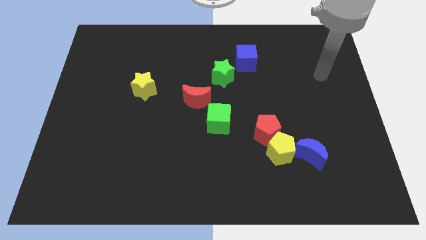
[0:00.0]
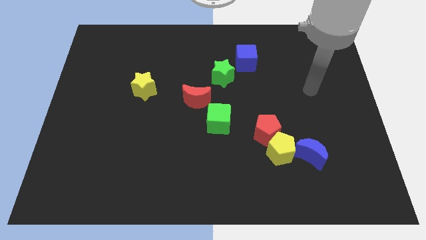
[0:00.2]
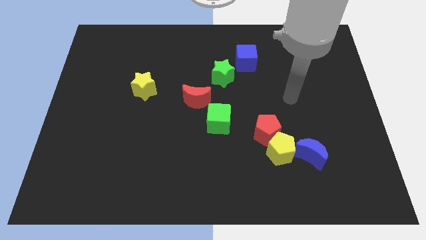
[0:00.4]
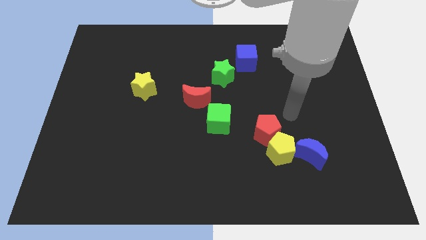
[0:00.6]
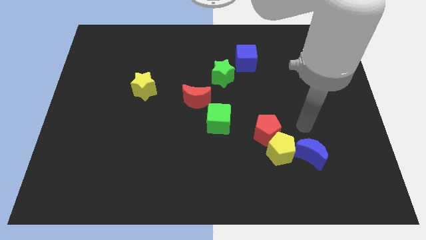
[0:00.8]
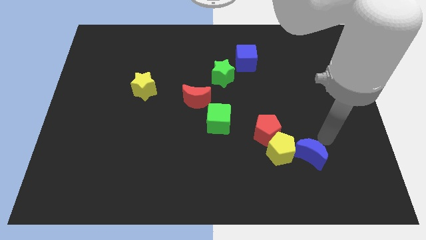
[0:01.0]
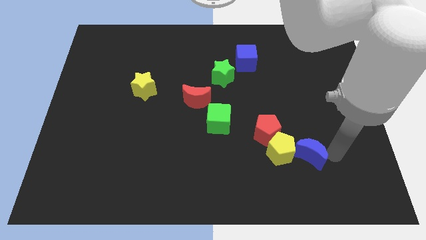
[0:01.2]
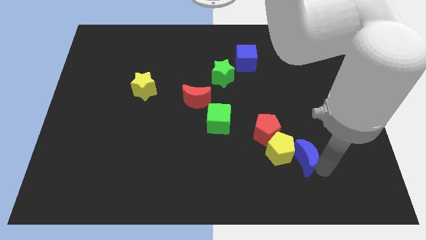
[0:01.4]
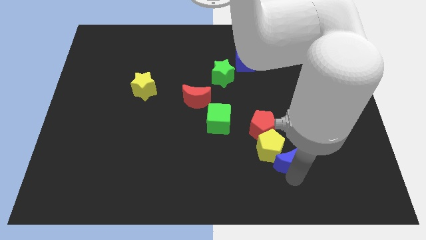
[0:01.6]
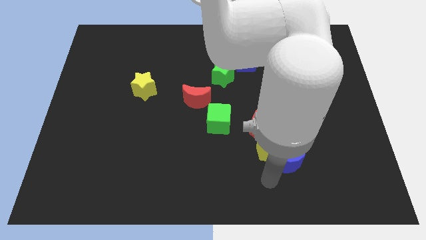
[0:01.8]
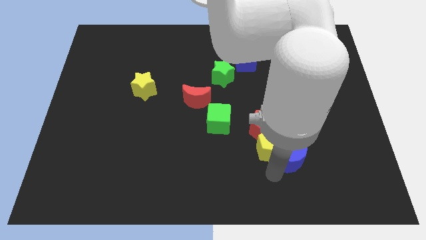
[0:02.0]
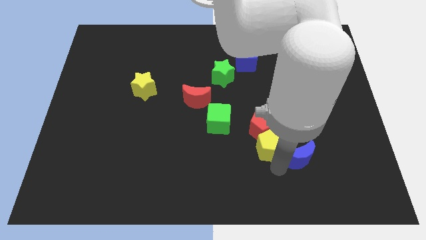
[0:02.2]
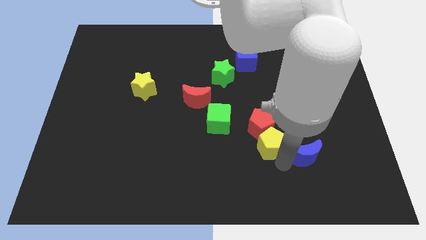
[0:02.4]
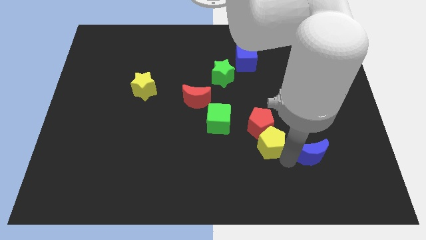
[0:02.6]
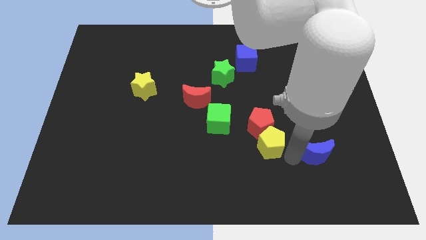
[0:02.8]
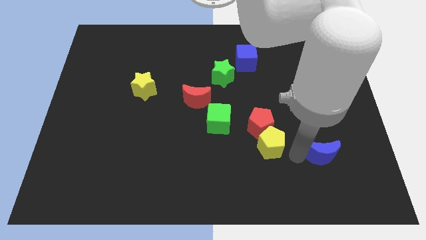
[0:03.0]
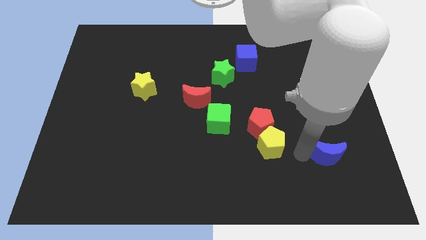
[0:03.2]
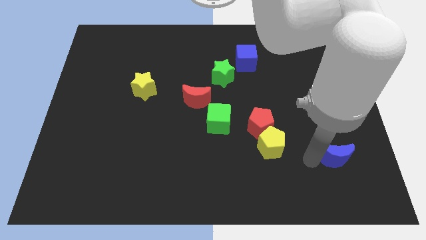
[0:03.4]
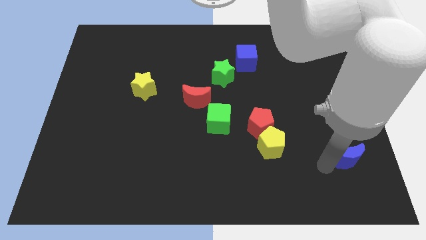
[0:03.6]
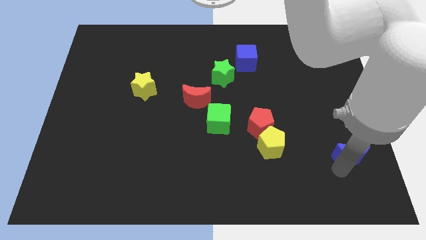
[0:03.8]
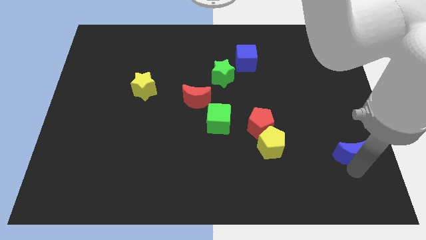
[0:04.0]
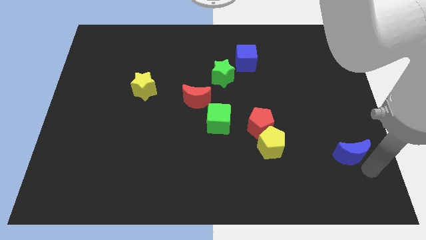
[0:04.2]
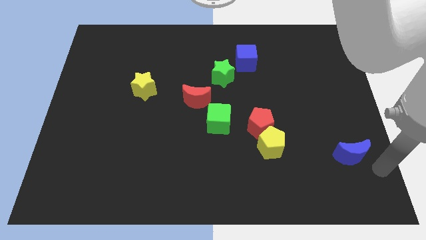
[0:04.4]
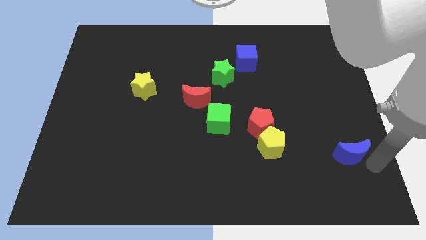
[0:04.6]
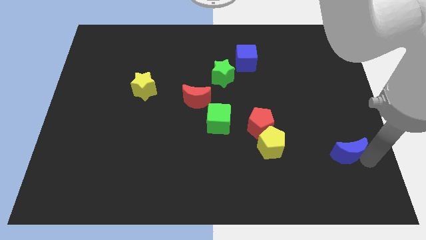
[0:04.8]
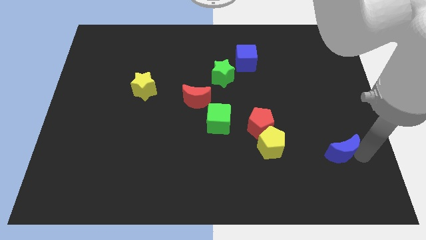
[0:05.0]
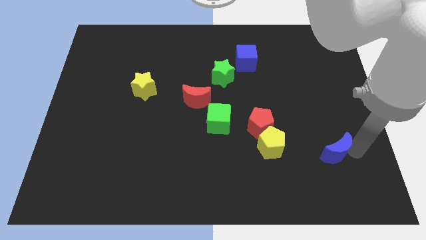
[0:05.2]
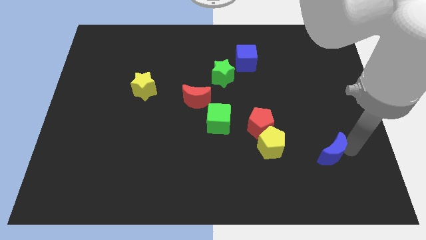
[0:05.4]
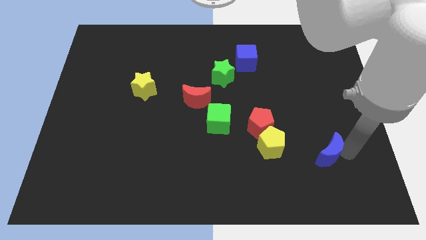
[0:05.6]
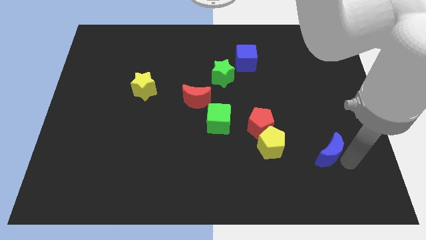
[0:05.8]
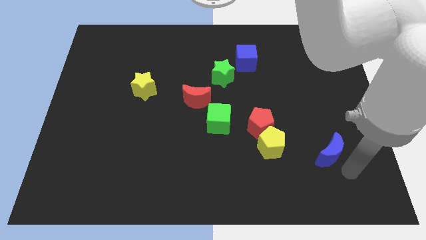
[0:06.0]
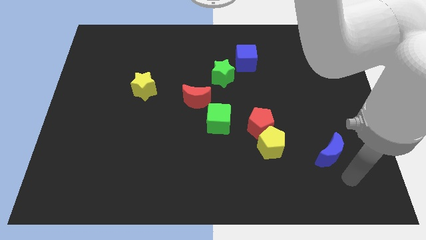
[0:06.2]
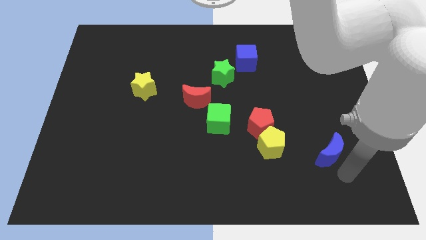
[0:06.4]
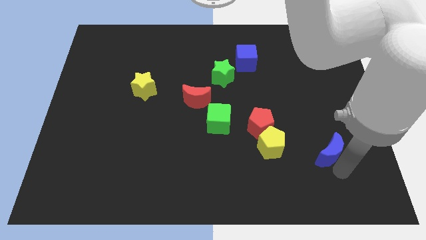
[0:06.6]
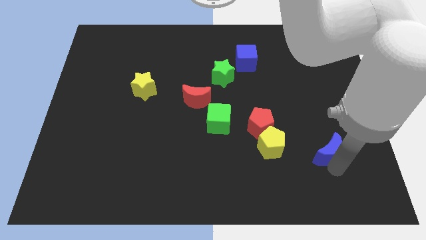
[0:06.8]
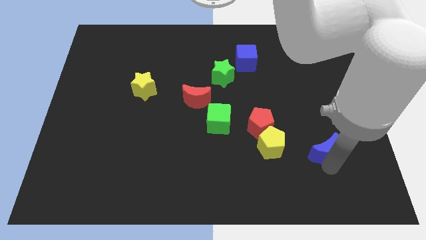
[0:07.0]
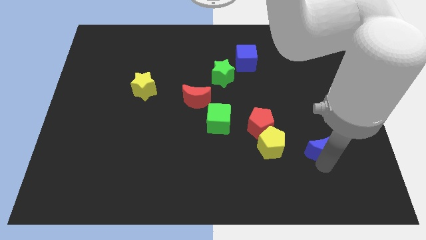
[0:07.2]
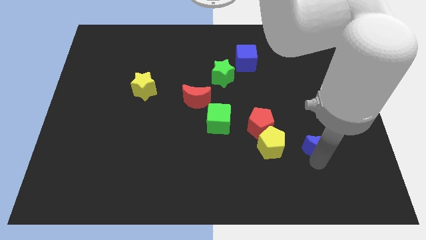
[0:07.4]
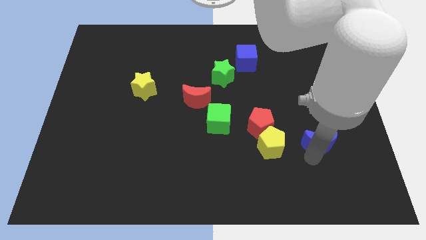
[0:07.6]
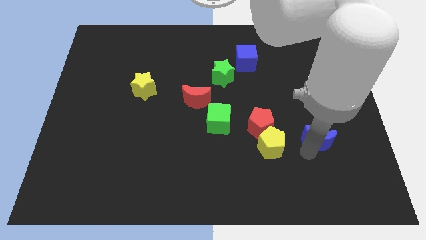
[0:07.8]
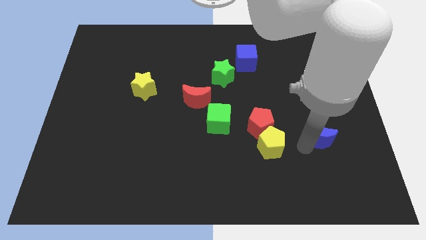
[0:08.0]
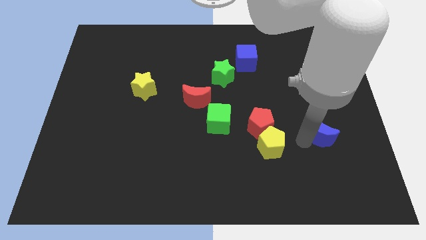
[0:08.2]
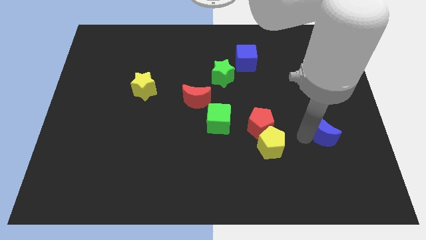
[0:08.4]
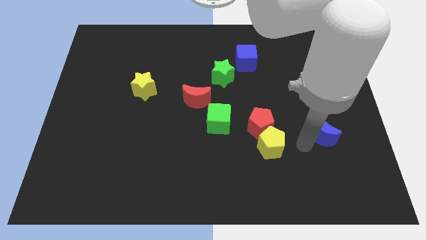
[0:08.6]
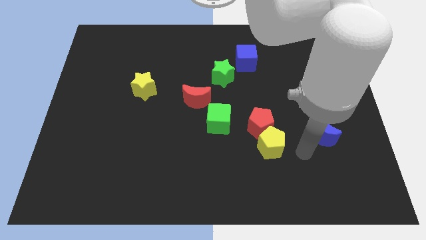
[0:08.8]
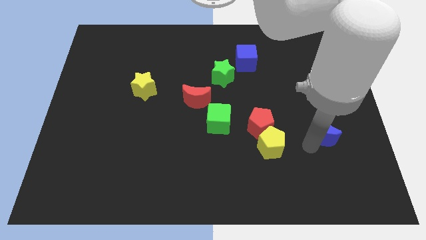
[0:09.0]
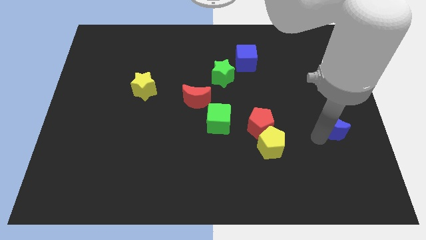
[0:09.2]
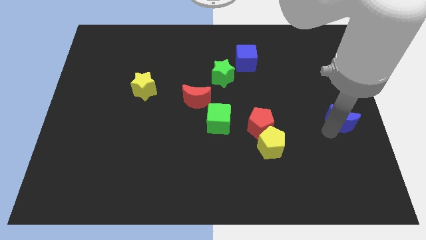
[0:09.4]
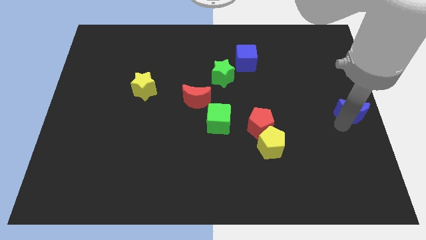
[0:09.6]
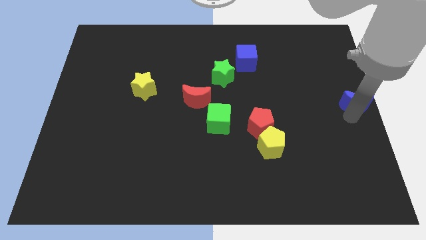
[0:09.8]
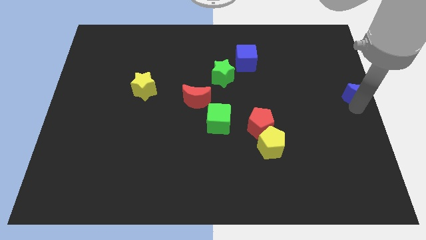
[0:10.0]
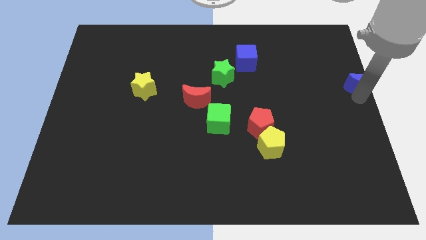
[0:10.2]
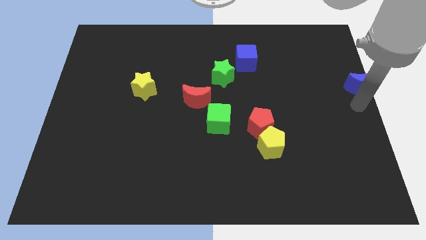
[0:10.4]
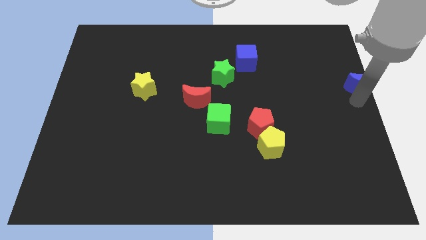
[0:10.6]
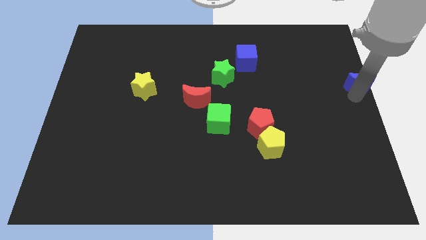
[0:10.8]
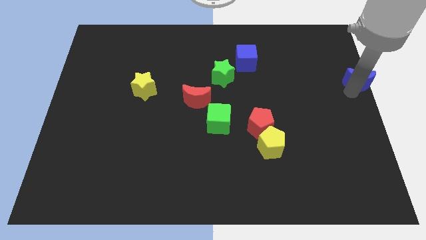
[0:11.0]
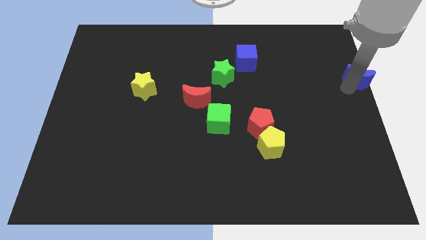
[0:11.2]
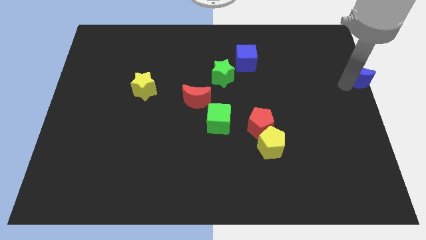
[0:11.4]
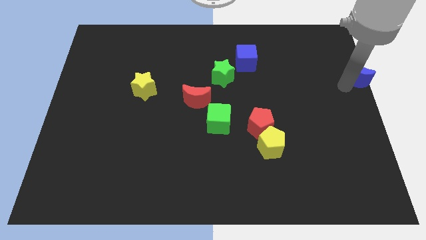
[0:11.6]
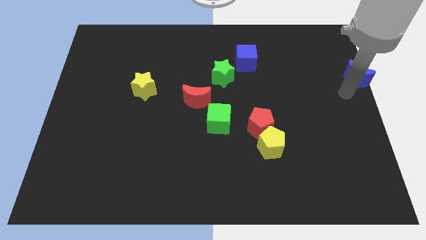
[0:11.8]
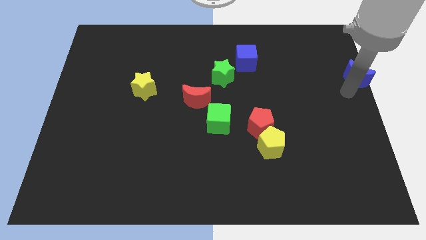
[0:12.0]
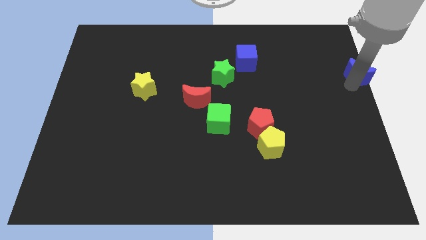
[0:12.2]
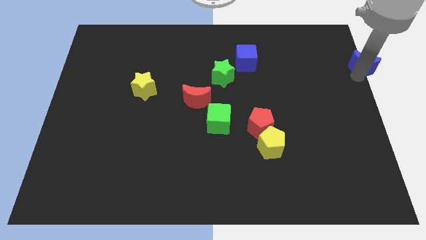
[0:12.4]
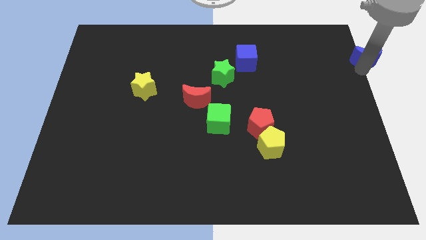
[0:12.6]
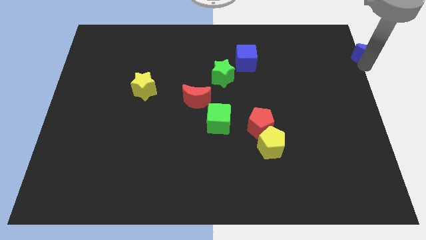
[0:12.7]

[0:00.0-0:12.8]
slide the blue moon to the top right corner
